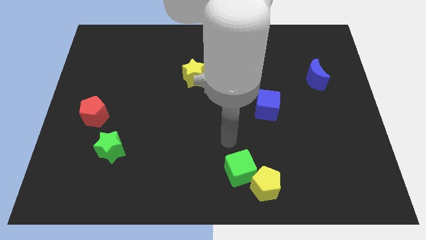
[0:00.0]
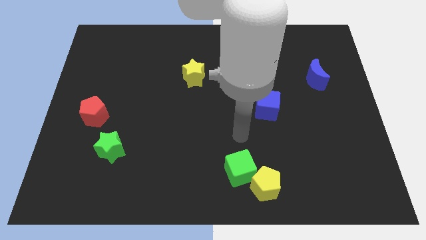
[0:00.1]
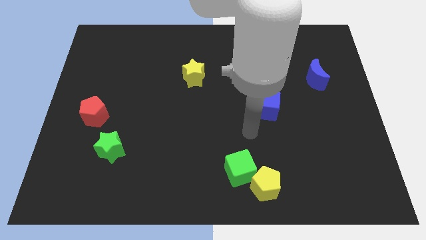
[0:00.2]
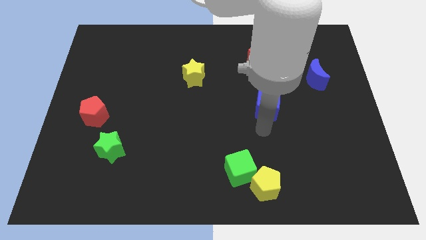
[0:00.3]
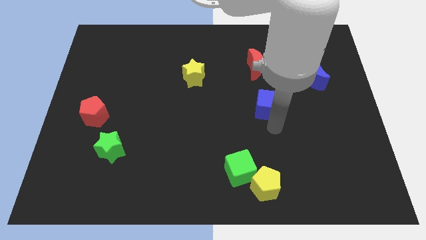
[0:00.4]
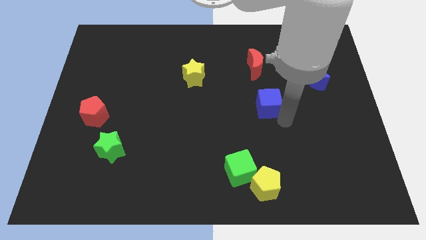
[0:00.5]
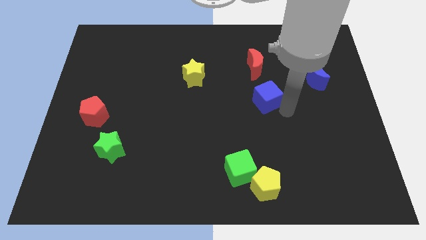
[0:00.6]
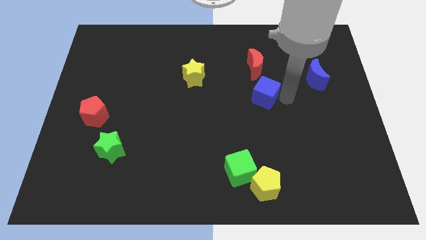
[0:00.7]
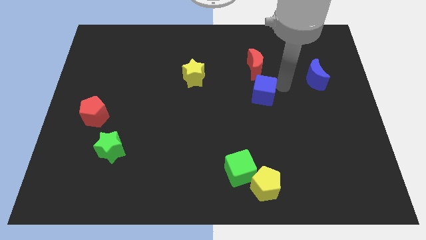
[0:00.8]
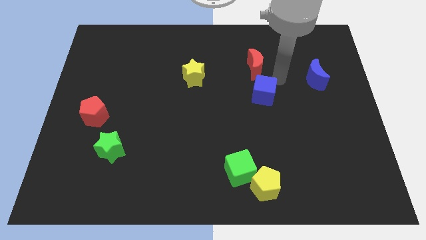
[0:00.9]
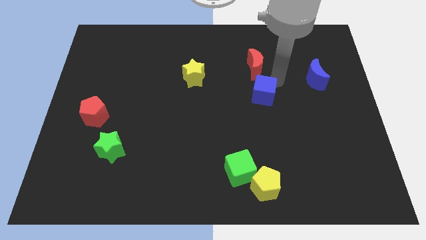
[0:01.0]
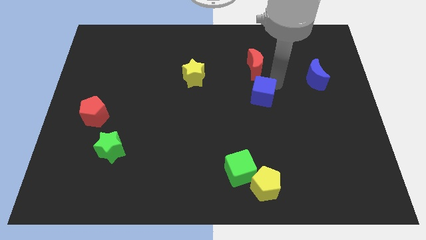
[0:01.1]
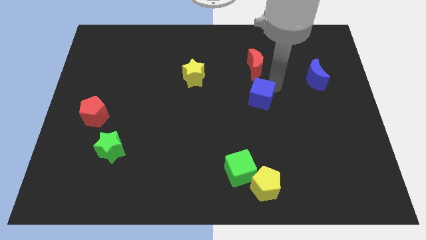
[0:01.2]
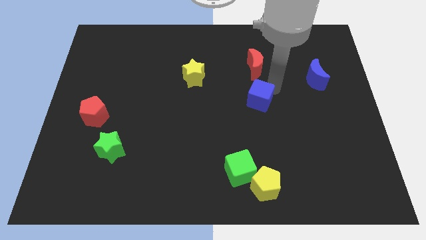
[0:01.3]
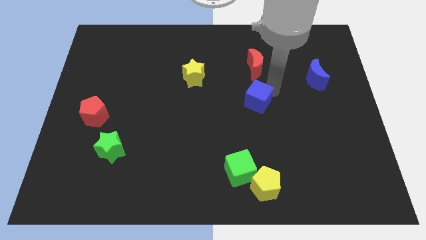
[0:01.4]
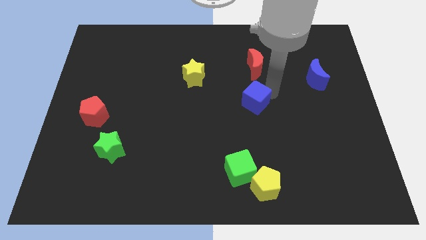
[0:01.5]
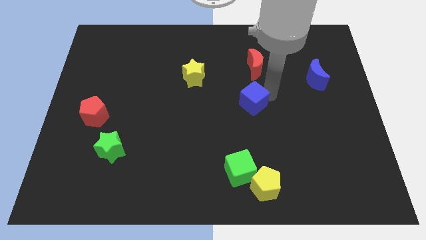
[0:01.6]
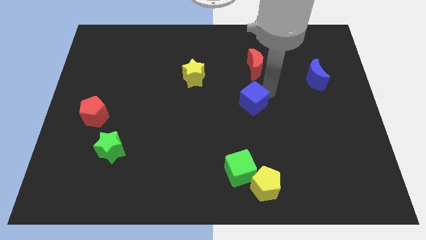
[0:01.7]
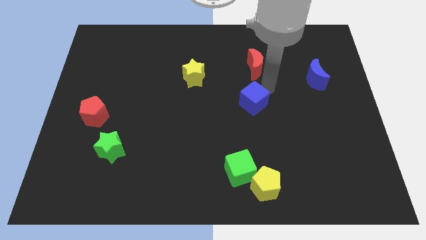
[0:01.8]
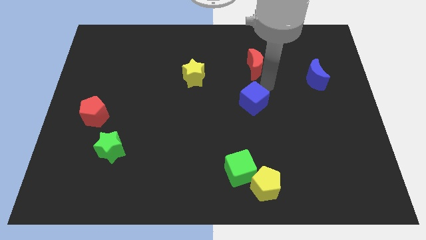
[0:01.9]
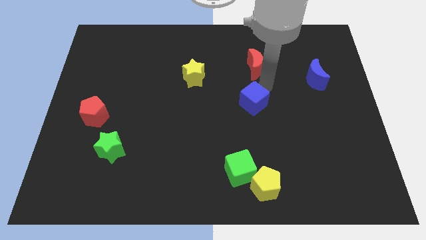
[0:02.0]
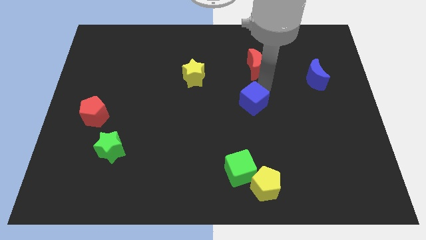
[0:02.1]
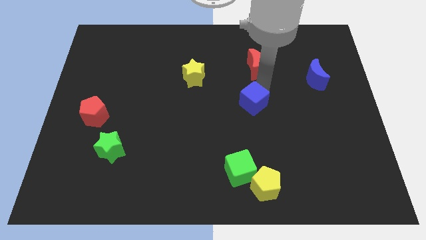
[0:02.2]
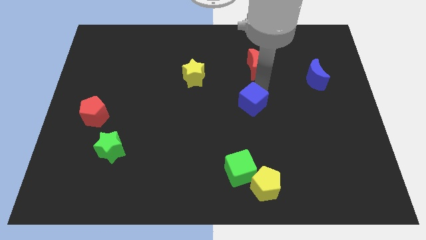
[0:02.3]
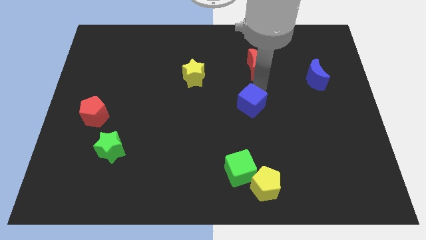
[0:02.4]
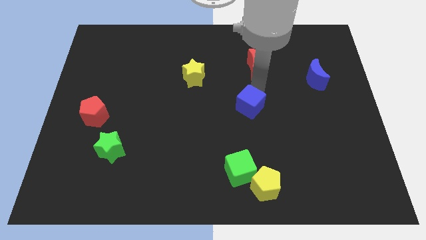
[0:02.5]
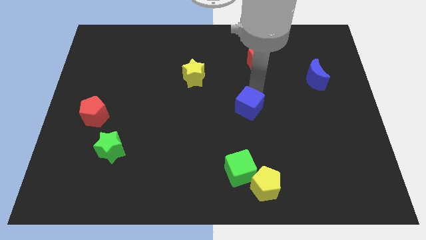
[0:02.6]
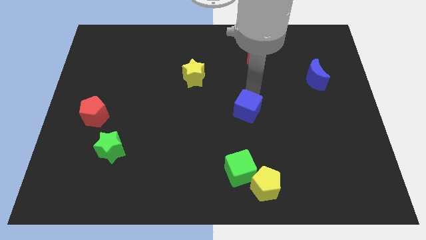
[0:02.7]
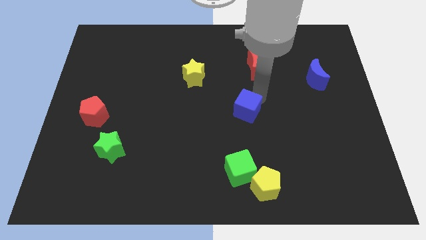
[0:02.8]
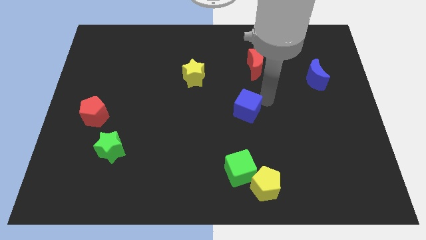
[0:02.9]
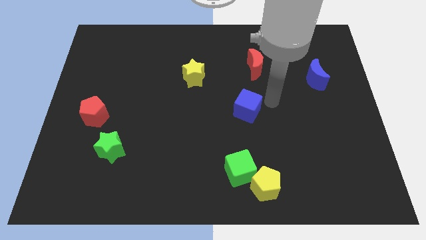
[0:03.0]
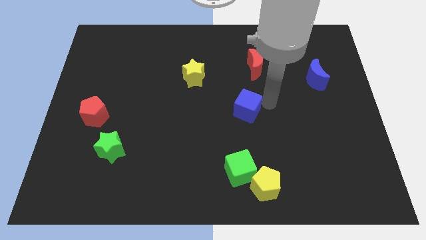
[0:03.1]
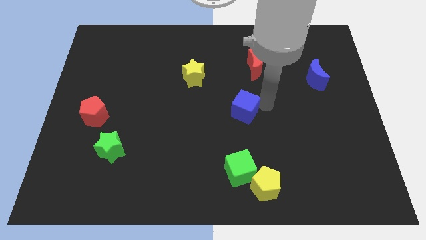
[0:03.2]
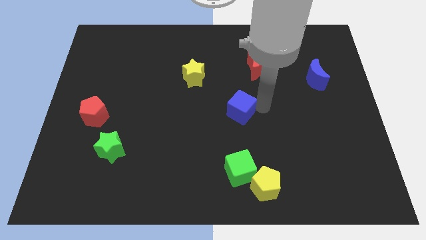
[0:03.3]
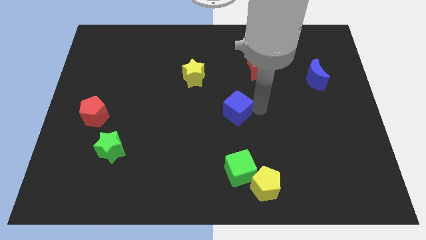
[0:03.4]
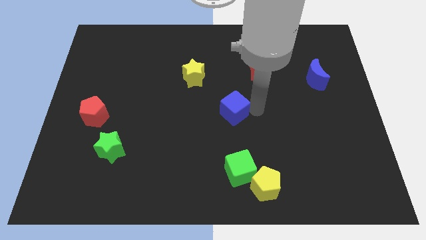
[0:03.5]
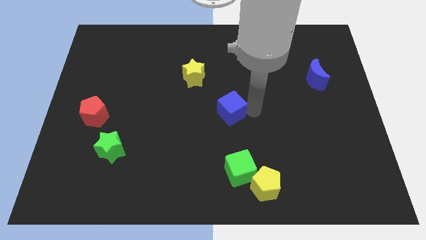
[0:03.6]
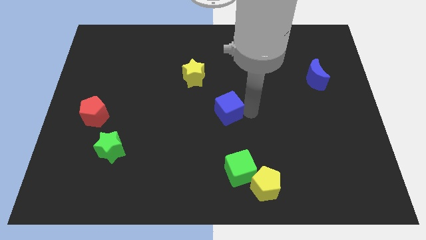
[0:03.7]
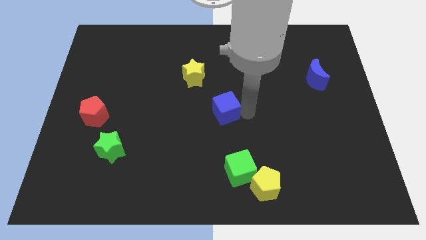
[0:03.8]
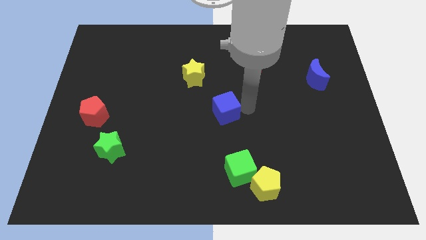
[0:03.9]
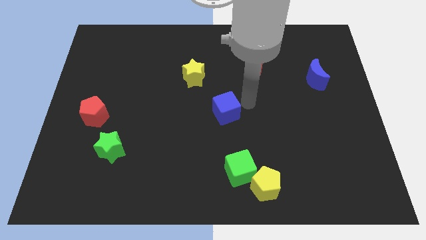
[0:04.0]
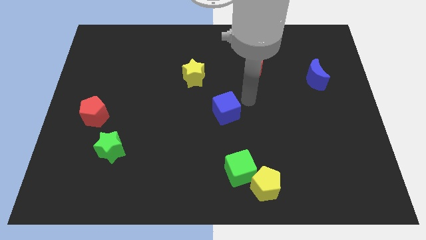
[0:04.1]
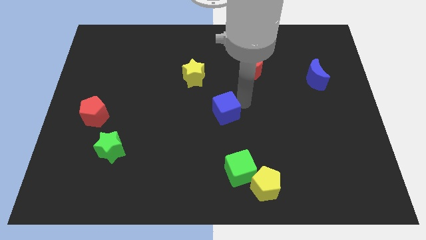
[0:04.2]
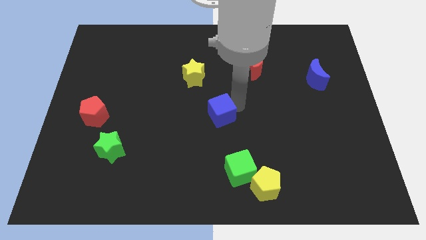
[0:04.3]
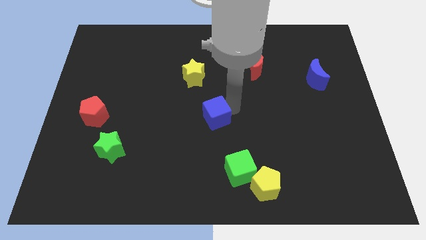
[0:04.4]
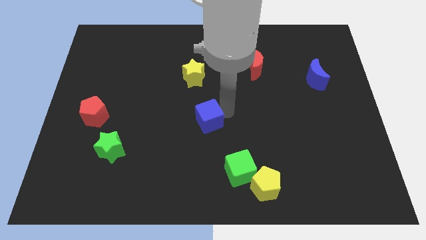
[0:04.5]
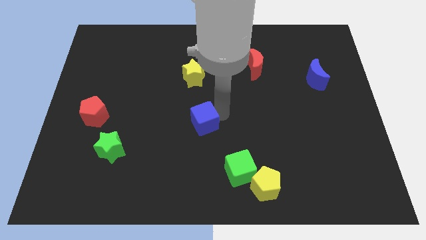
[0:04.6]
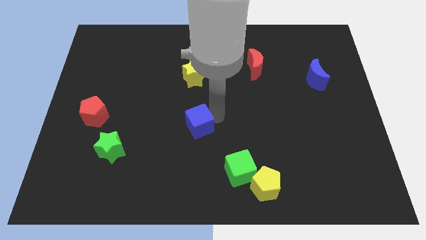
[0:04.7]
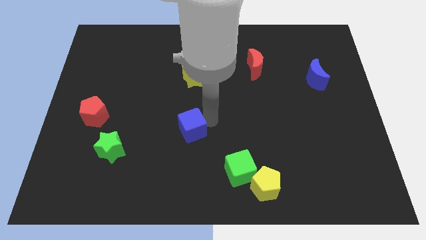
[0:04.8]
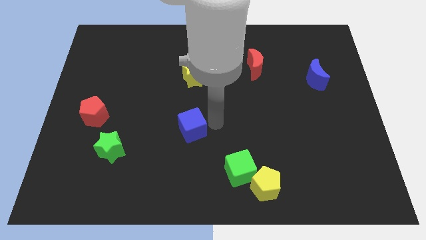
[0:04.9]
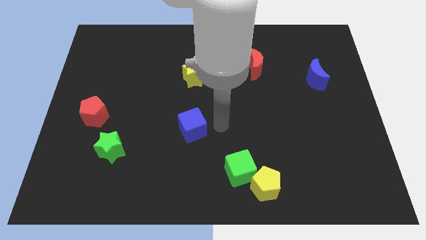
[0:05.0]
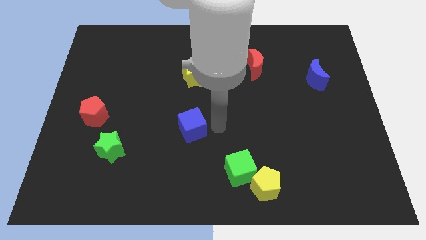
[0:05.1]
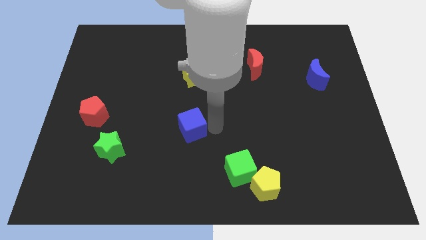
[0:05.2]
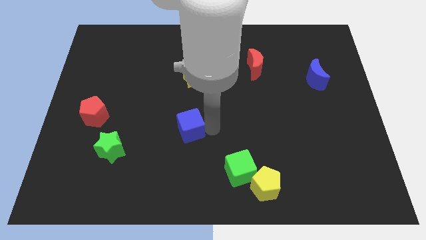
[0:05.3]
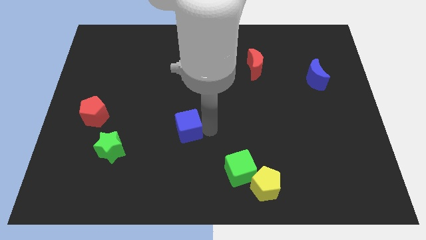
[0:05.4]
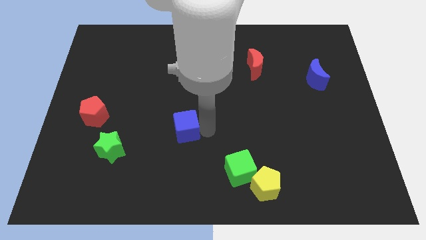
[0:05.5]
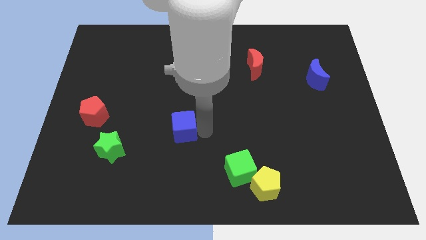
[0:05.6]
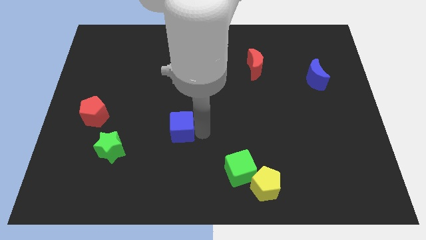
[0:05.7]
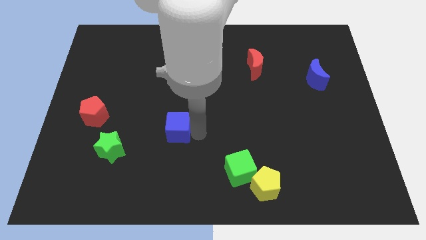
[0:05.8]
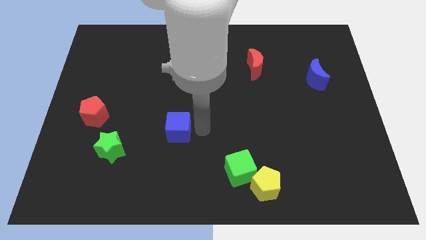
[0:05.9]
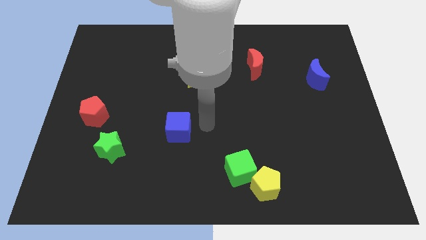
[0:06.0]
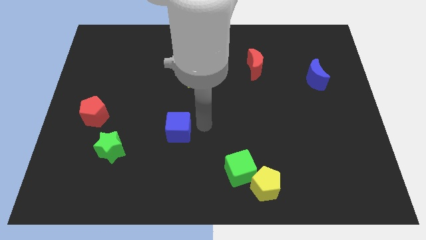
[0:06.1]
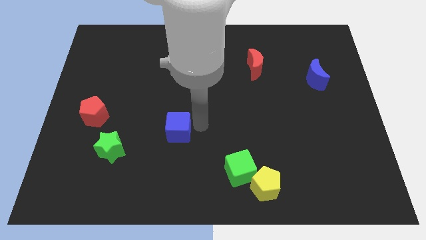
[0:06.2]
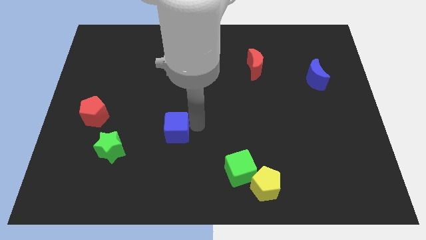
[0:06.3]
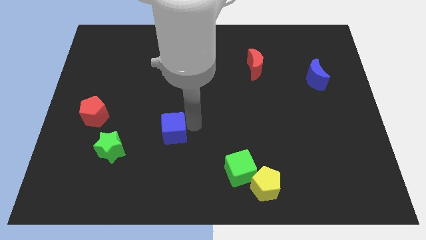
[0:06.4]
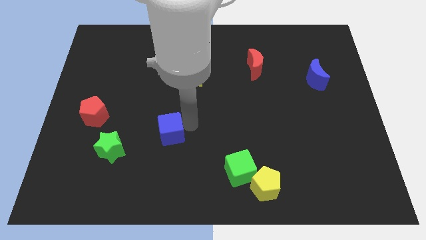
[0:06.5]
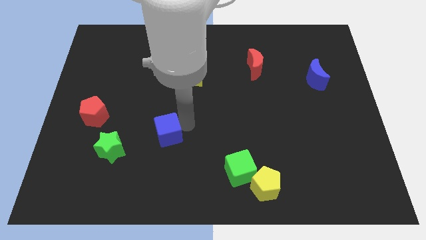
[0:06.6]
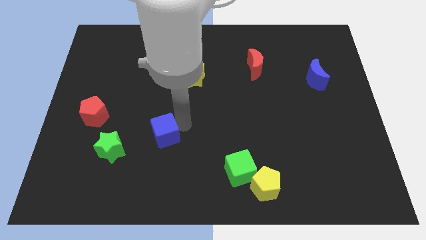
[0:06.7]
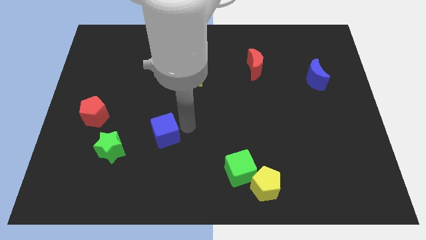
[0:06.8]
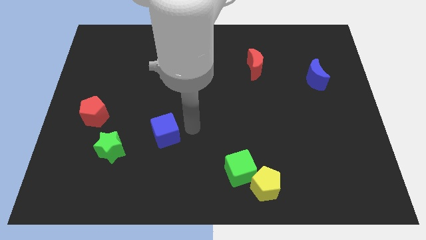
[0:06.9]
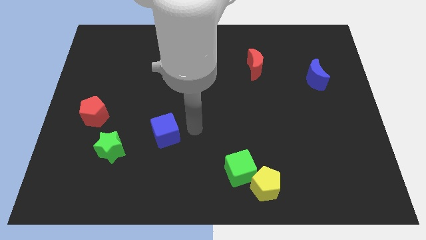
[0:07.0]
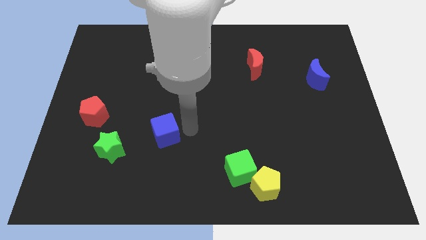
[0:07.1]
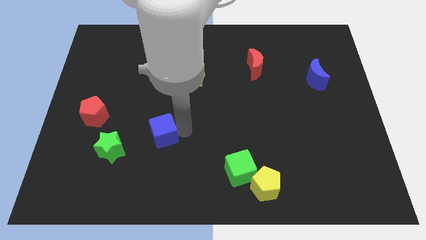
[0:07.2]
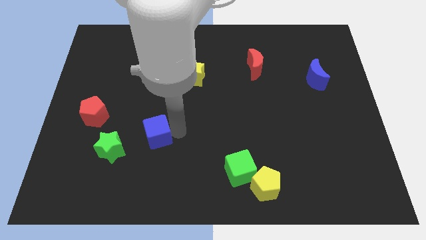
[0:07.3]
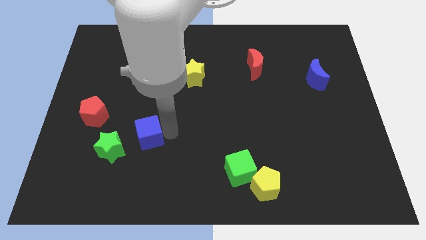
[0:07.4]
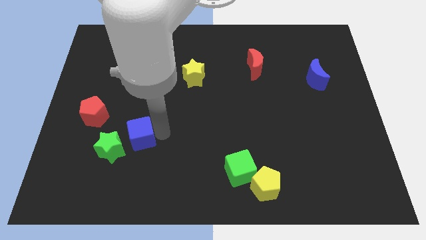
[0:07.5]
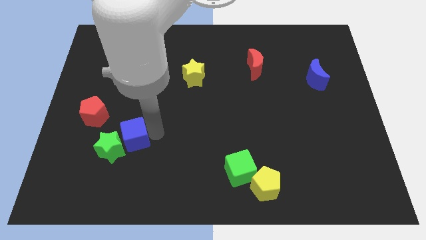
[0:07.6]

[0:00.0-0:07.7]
put the blue cube next to the green star
